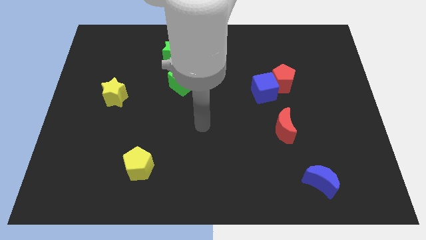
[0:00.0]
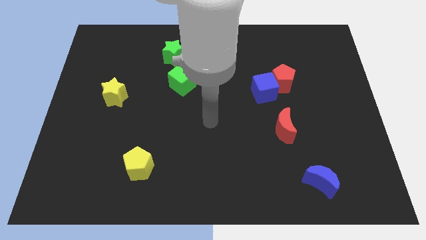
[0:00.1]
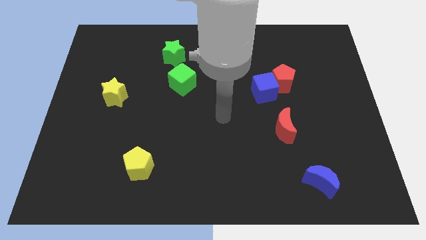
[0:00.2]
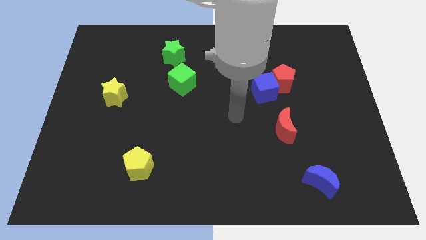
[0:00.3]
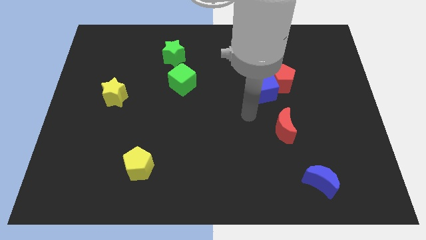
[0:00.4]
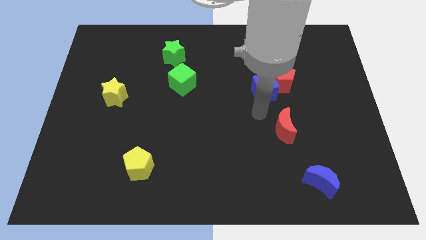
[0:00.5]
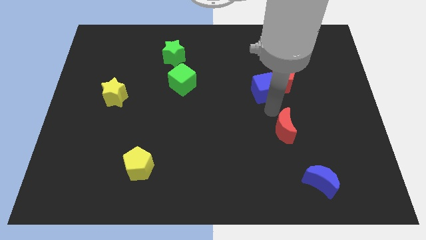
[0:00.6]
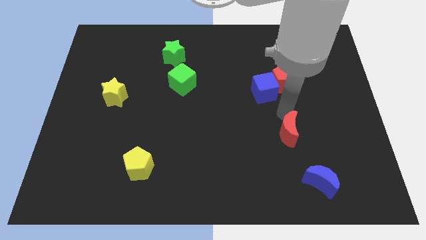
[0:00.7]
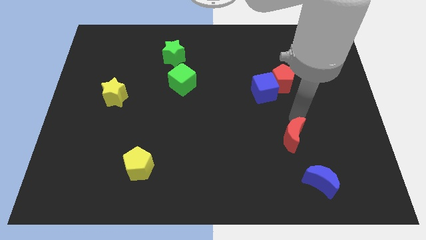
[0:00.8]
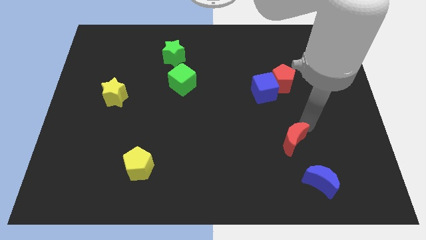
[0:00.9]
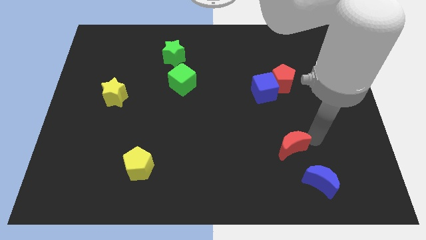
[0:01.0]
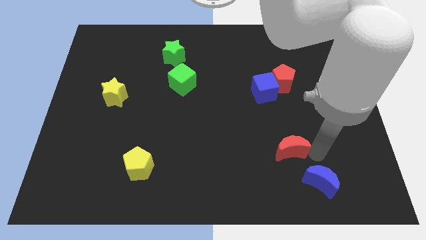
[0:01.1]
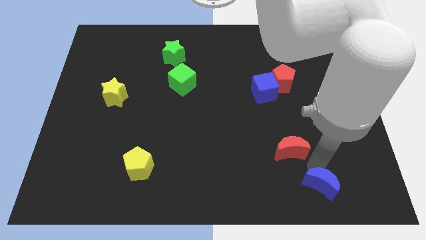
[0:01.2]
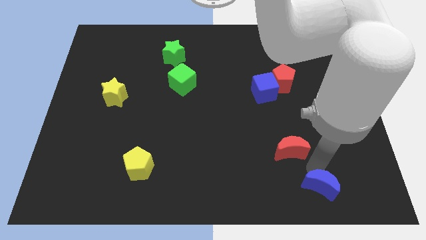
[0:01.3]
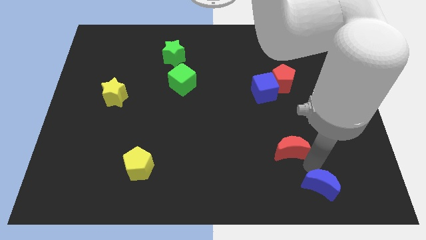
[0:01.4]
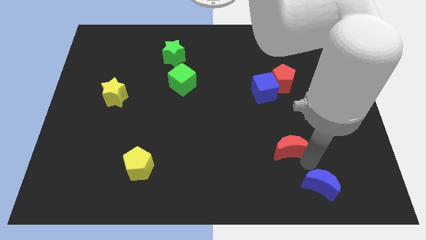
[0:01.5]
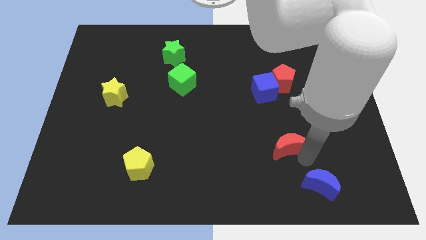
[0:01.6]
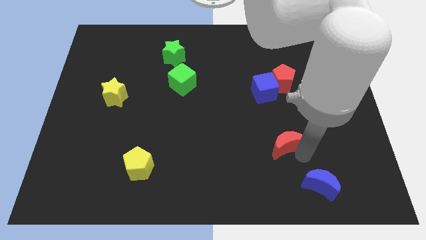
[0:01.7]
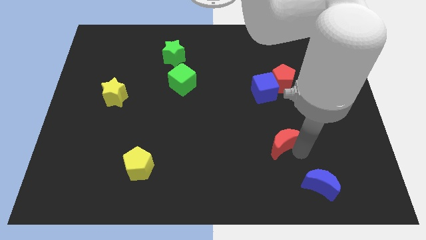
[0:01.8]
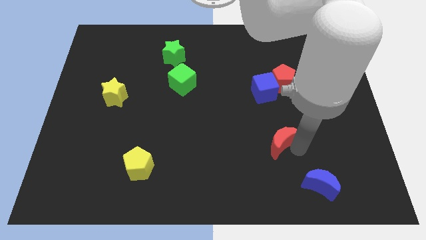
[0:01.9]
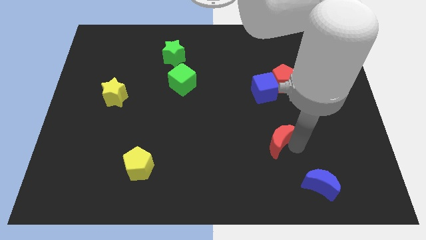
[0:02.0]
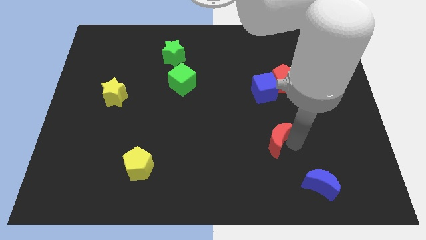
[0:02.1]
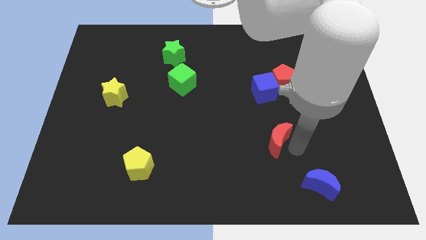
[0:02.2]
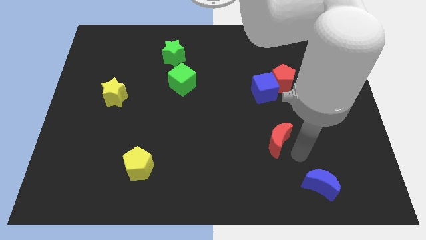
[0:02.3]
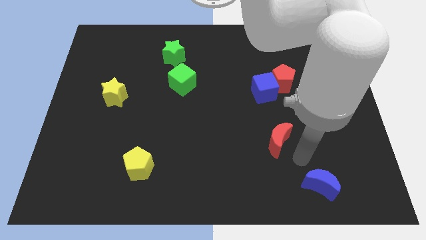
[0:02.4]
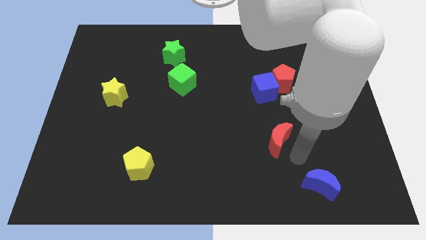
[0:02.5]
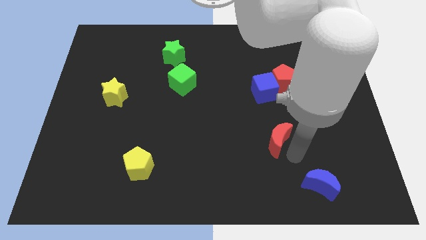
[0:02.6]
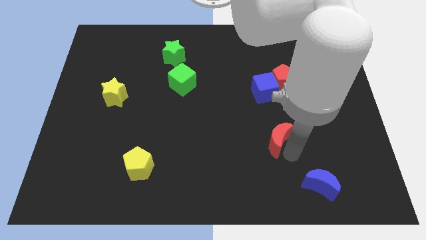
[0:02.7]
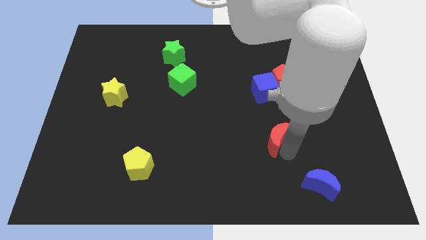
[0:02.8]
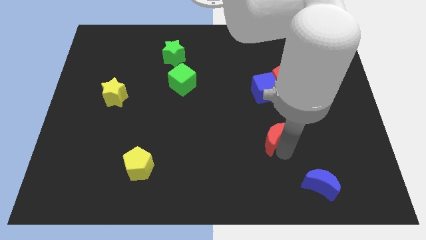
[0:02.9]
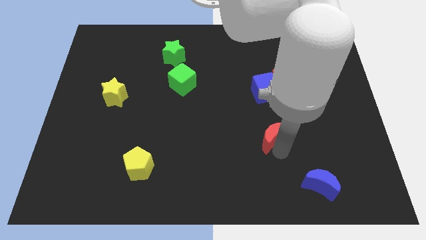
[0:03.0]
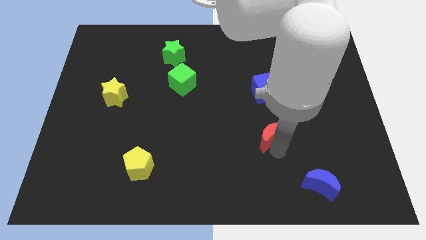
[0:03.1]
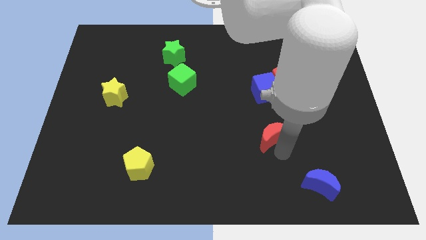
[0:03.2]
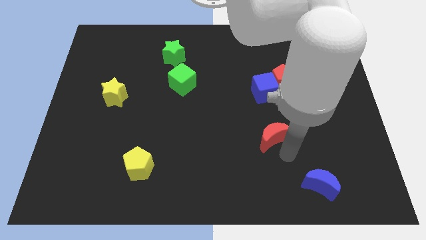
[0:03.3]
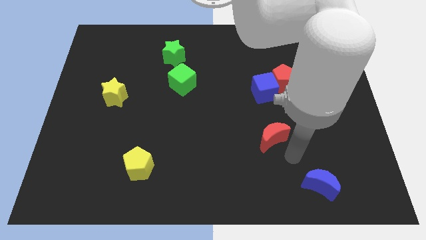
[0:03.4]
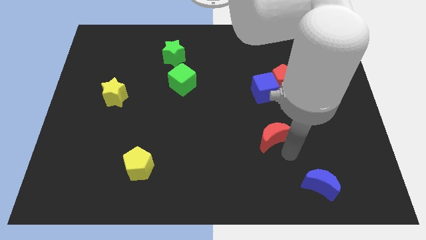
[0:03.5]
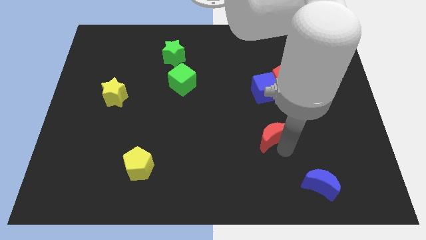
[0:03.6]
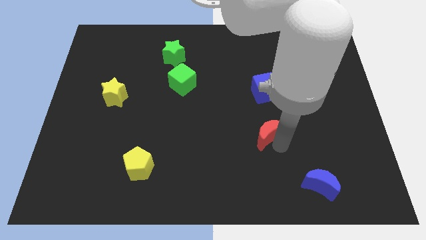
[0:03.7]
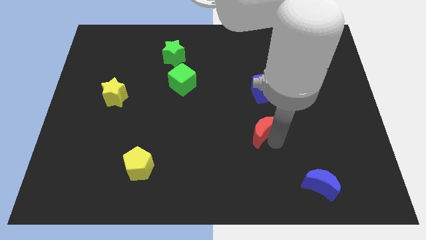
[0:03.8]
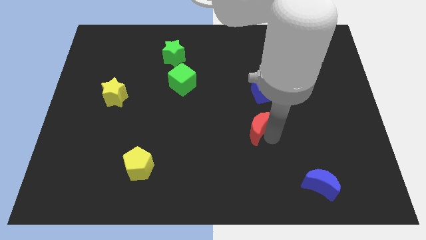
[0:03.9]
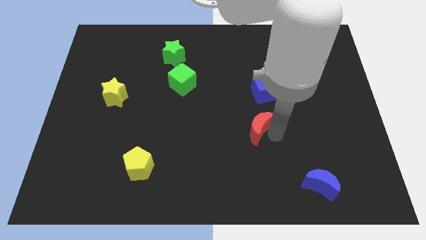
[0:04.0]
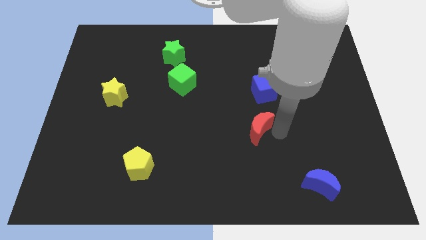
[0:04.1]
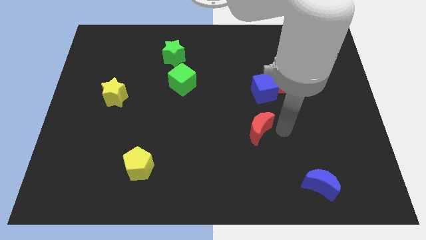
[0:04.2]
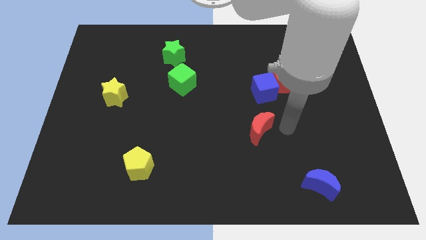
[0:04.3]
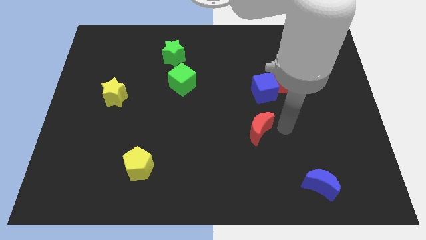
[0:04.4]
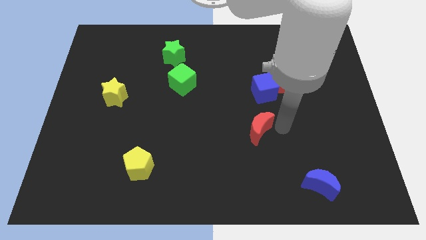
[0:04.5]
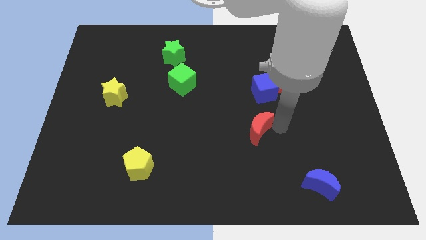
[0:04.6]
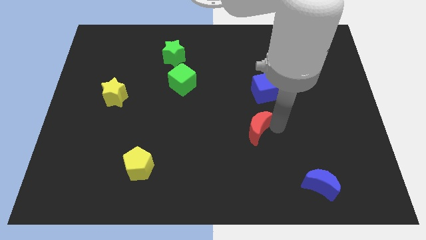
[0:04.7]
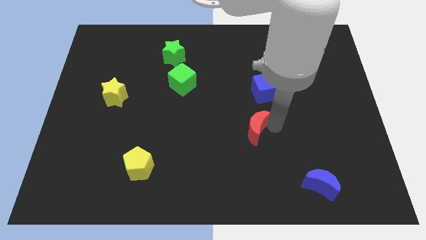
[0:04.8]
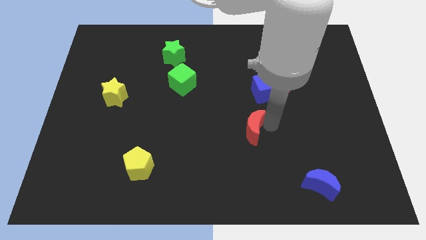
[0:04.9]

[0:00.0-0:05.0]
slide the red moon to the left a bit

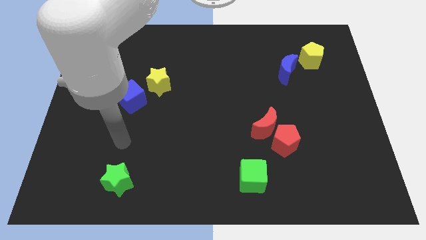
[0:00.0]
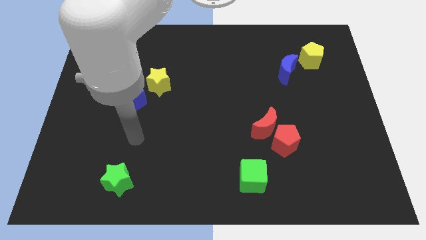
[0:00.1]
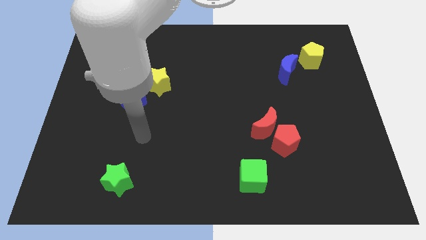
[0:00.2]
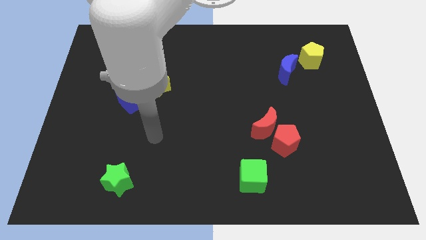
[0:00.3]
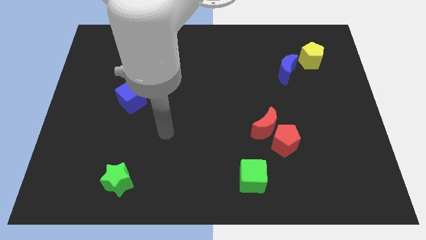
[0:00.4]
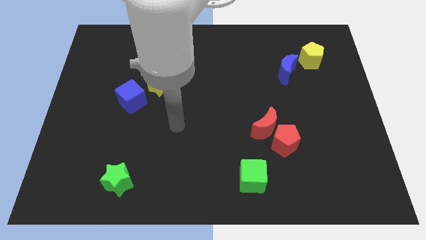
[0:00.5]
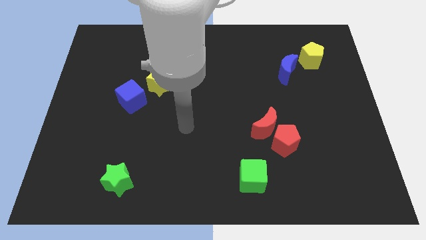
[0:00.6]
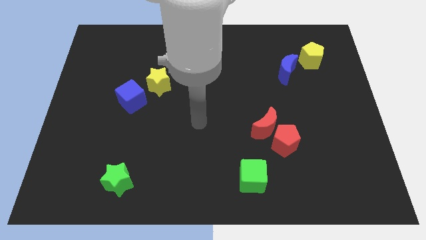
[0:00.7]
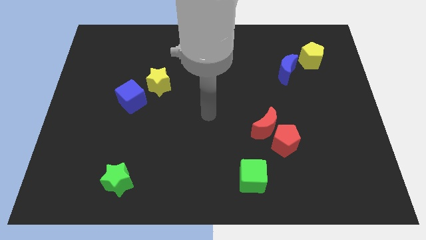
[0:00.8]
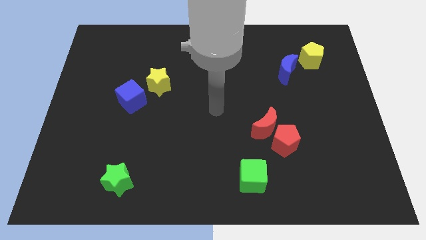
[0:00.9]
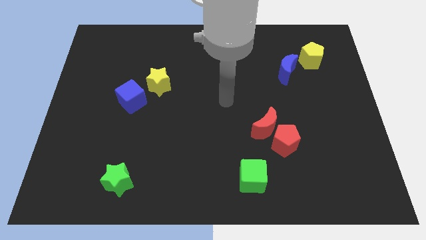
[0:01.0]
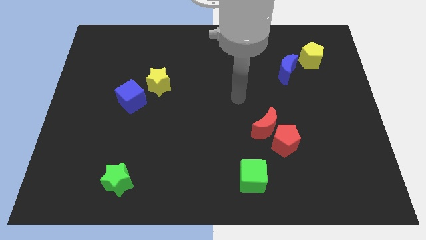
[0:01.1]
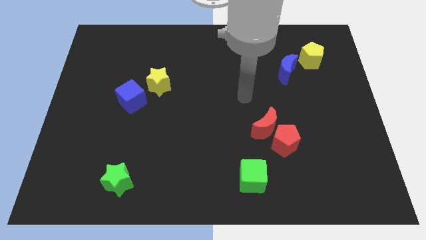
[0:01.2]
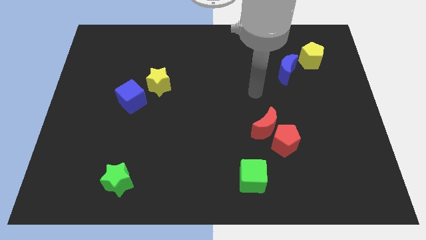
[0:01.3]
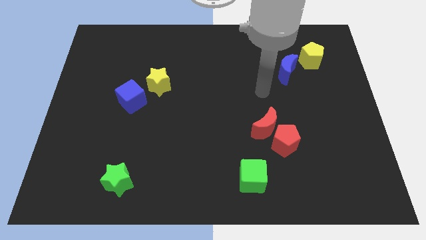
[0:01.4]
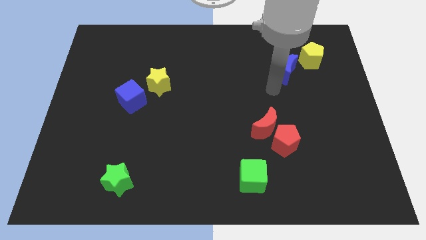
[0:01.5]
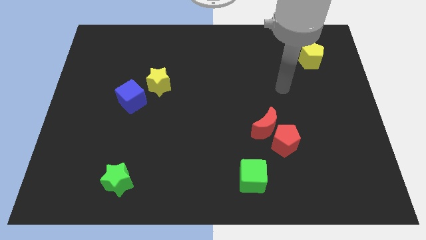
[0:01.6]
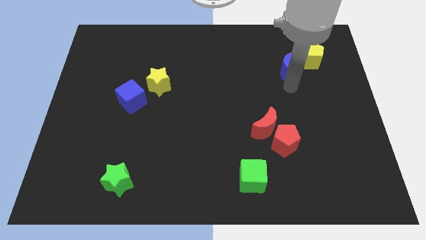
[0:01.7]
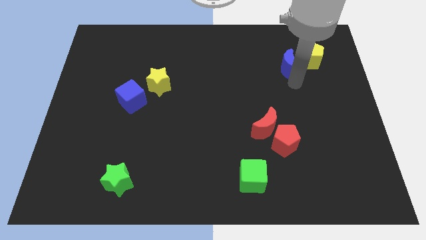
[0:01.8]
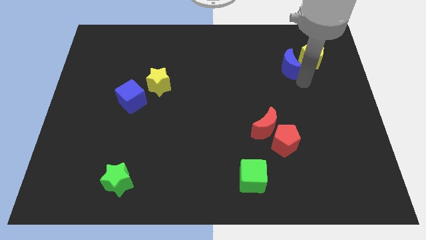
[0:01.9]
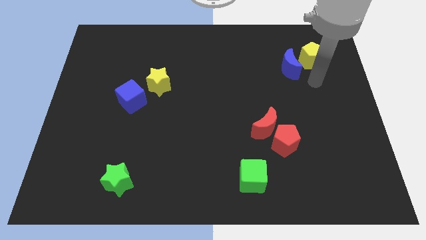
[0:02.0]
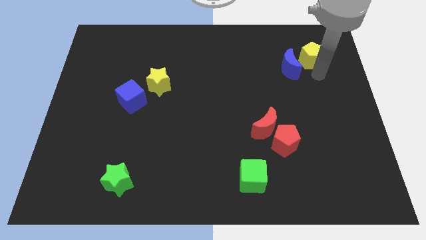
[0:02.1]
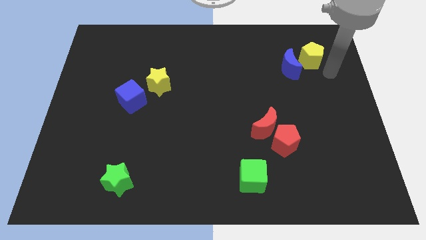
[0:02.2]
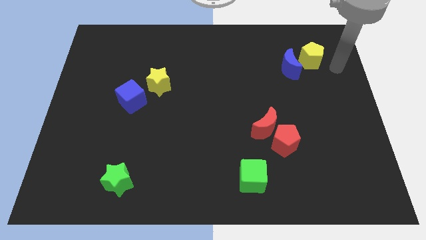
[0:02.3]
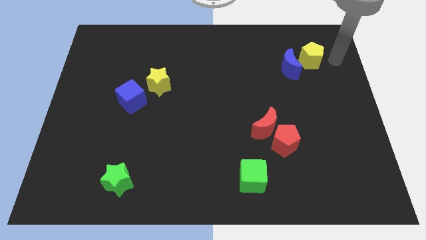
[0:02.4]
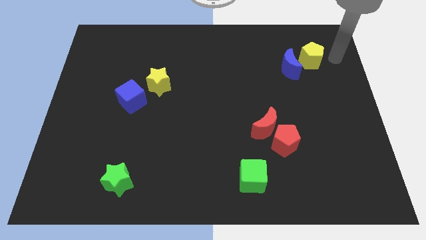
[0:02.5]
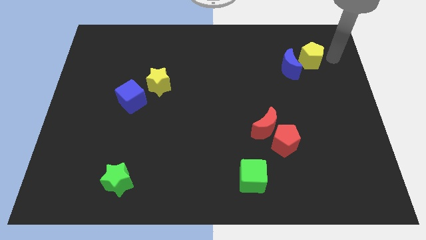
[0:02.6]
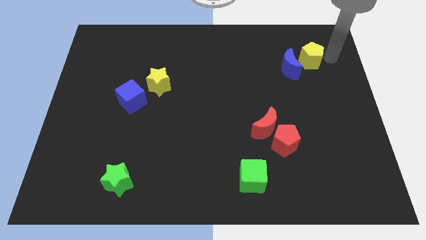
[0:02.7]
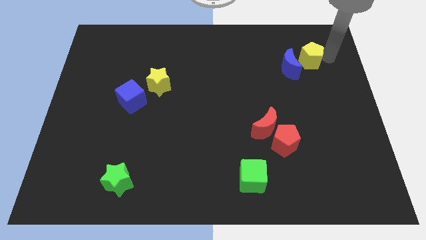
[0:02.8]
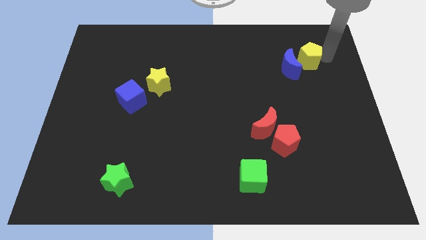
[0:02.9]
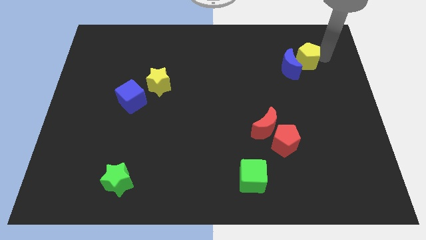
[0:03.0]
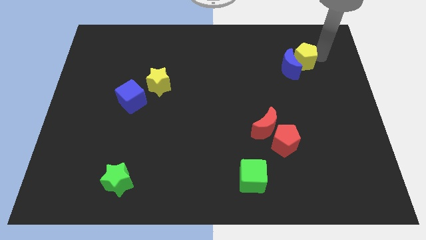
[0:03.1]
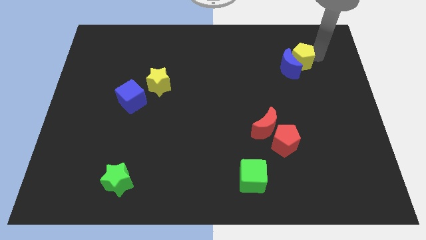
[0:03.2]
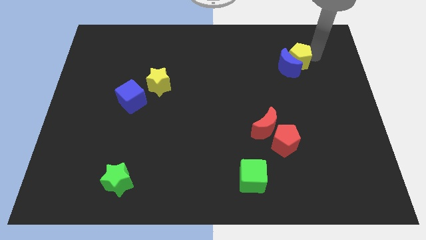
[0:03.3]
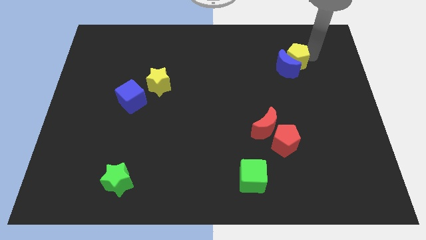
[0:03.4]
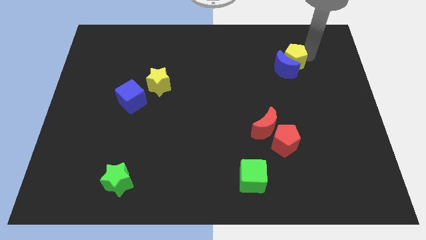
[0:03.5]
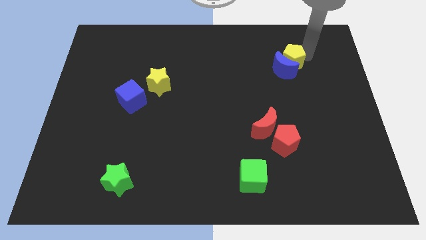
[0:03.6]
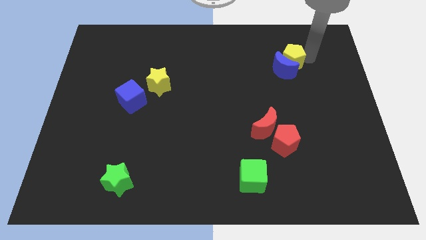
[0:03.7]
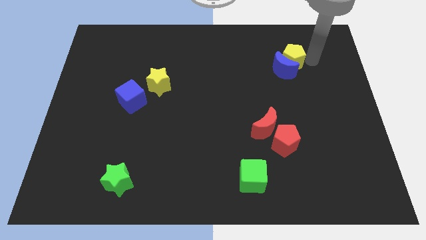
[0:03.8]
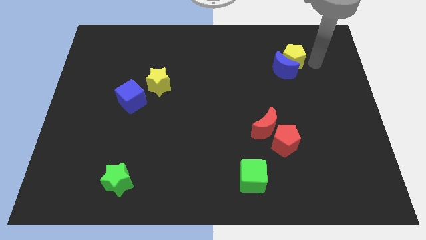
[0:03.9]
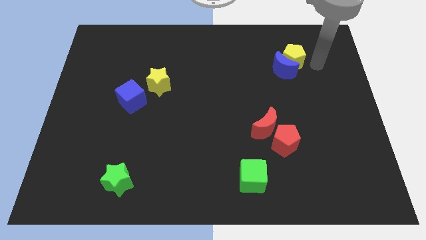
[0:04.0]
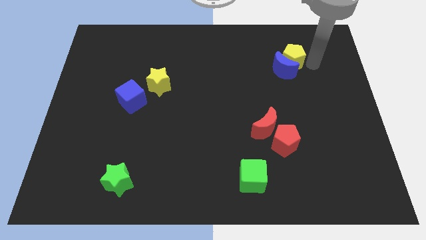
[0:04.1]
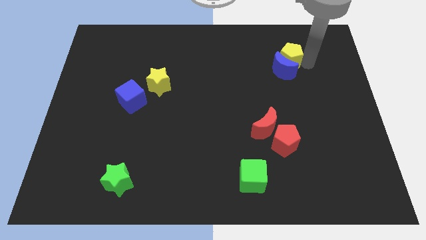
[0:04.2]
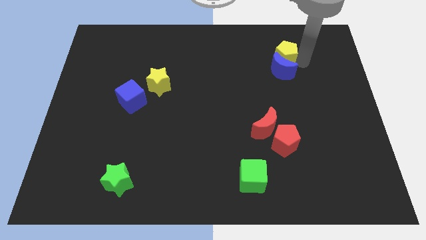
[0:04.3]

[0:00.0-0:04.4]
push the yellow pentagon a little left
